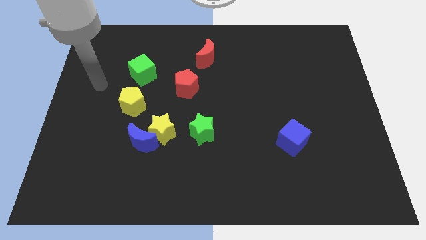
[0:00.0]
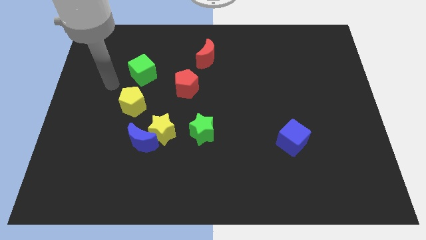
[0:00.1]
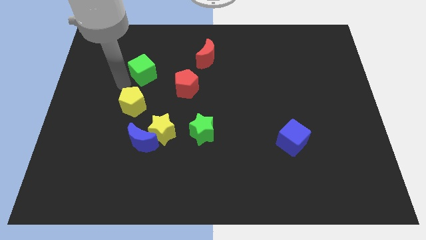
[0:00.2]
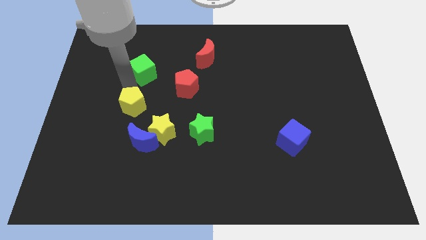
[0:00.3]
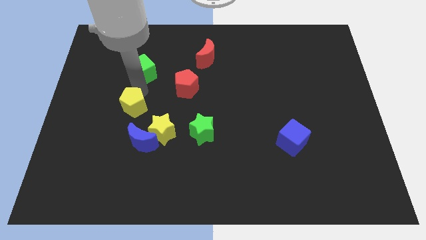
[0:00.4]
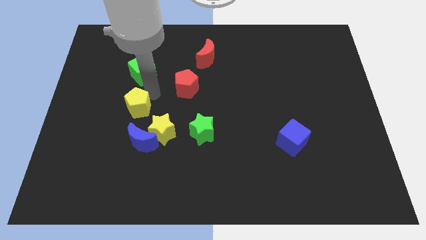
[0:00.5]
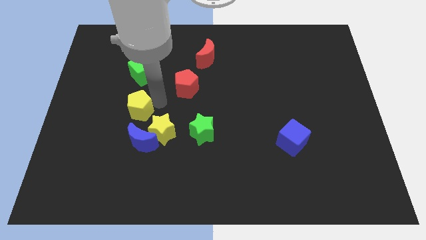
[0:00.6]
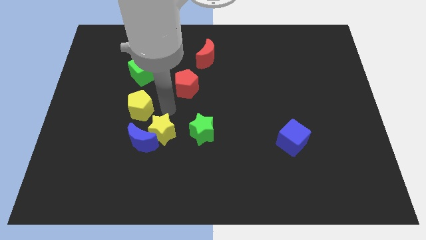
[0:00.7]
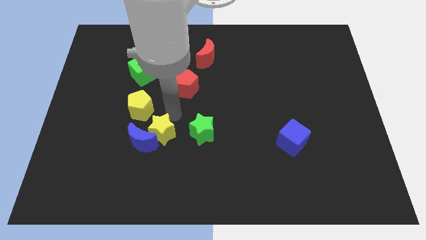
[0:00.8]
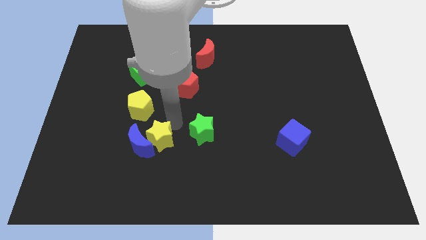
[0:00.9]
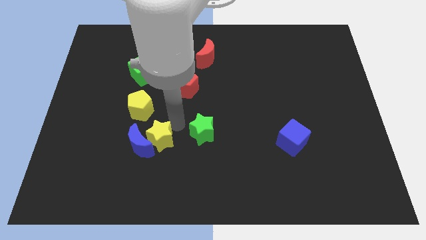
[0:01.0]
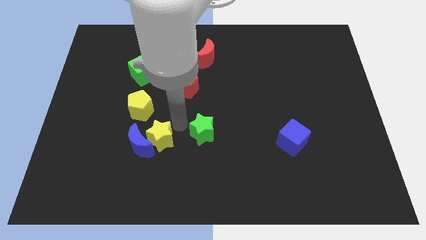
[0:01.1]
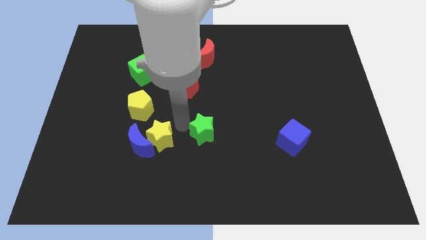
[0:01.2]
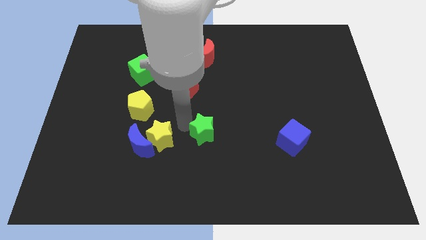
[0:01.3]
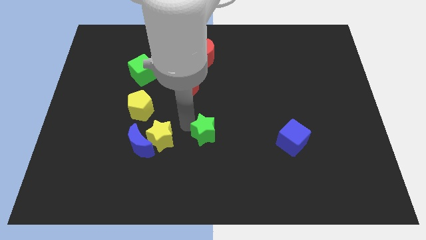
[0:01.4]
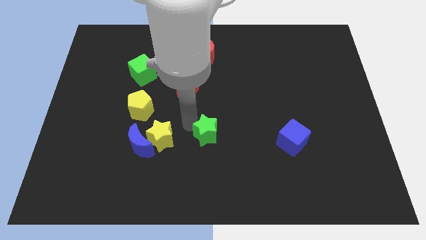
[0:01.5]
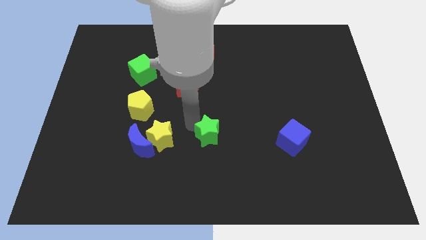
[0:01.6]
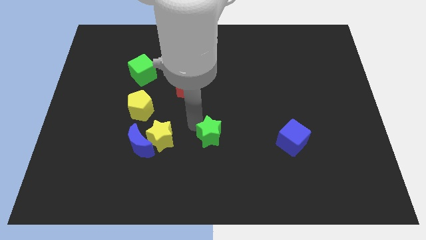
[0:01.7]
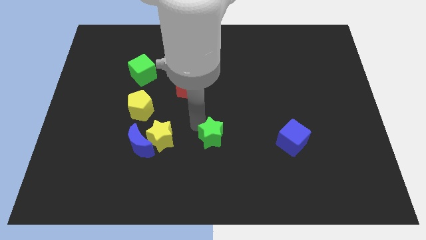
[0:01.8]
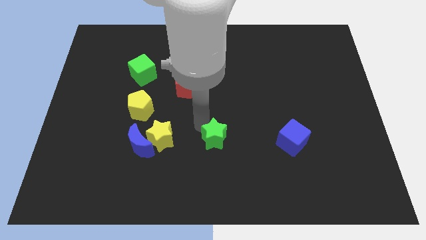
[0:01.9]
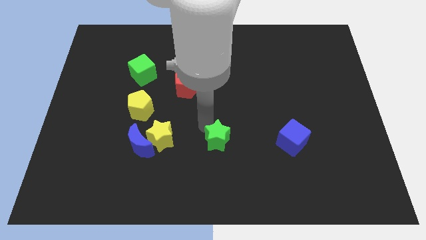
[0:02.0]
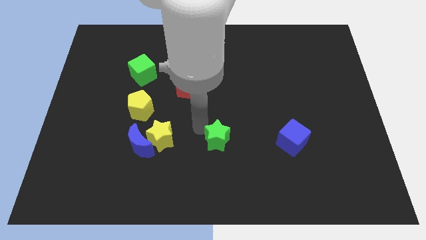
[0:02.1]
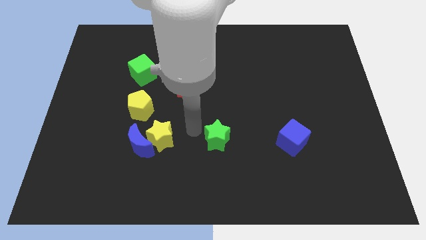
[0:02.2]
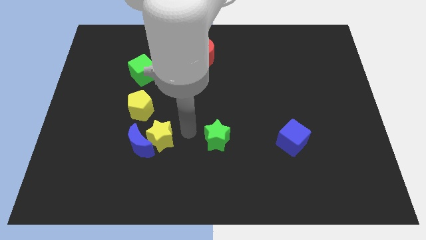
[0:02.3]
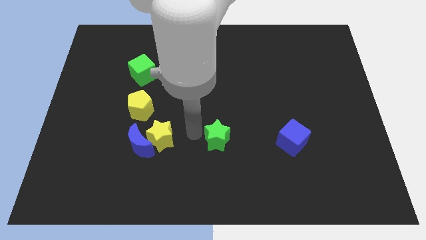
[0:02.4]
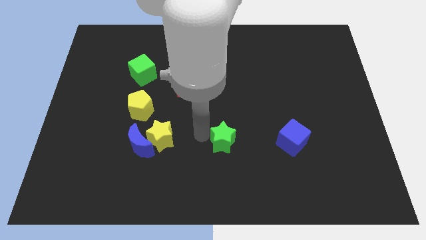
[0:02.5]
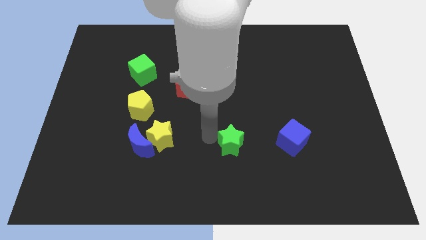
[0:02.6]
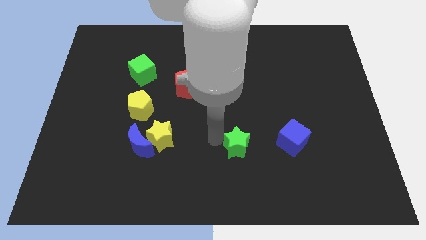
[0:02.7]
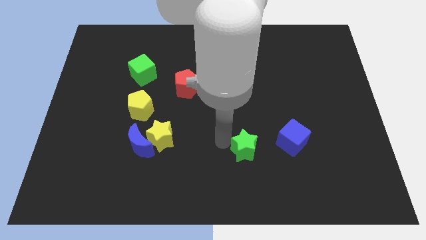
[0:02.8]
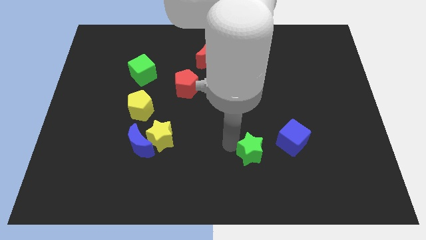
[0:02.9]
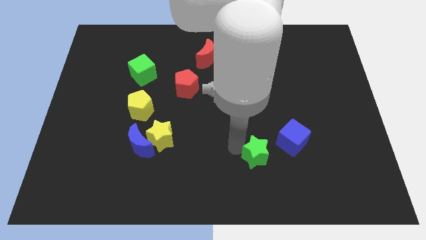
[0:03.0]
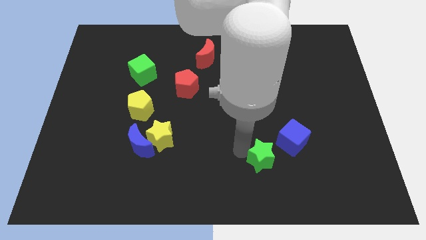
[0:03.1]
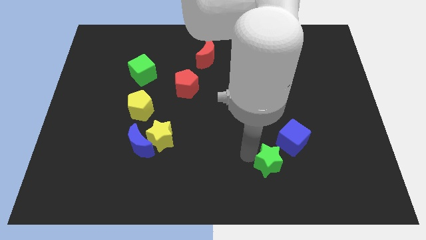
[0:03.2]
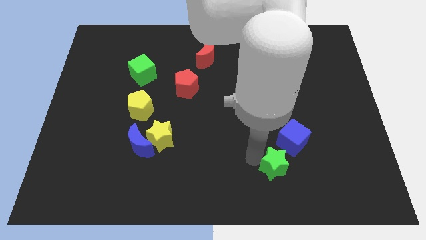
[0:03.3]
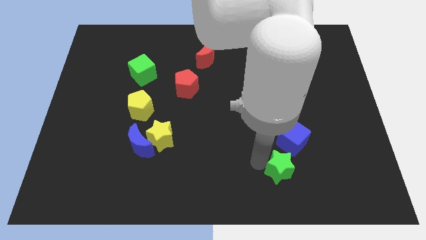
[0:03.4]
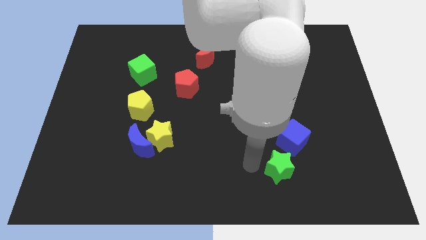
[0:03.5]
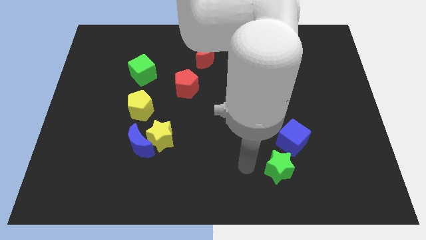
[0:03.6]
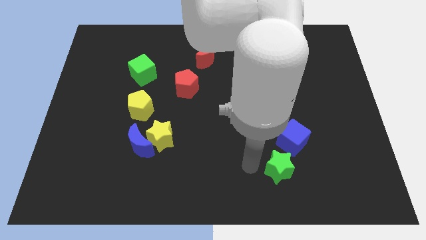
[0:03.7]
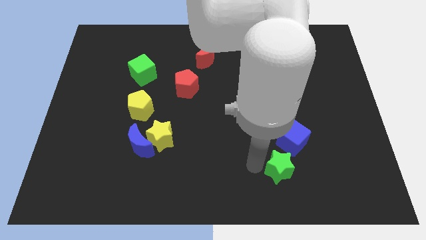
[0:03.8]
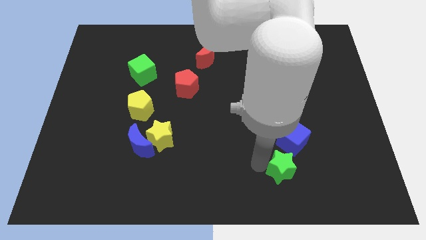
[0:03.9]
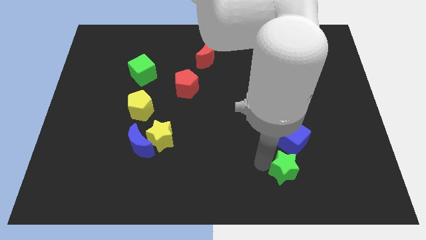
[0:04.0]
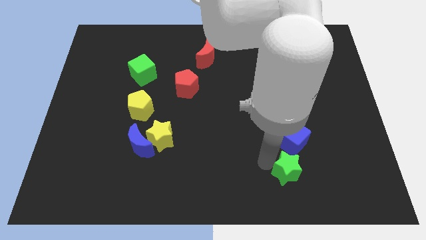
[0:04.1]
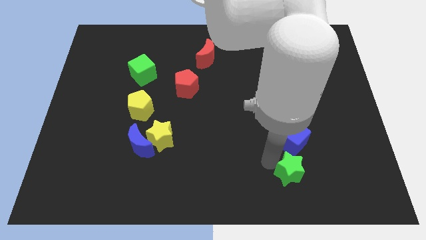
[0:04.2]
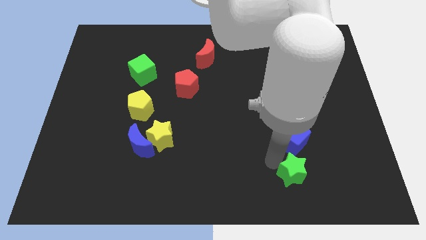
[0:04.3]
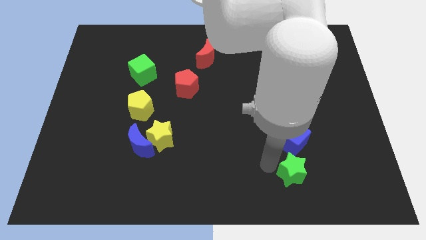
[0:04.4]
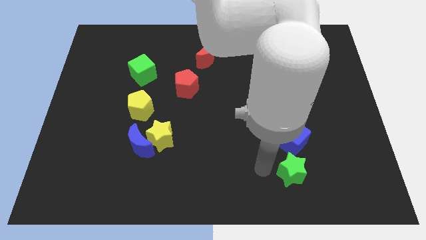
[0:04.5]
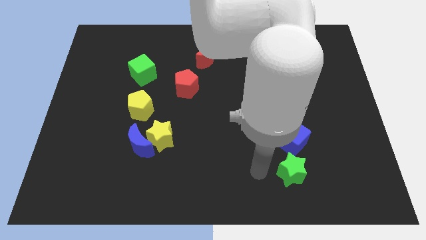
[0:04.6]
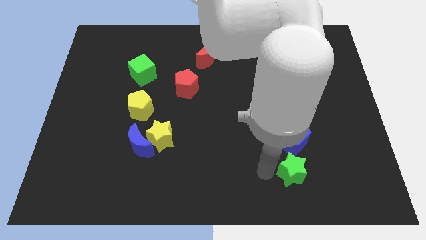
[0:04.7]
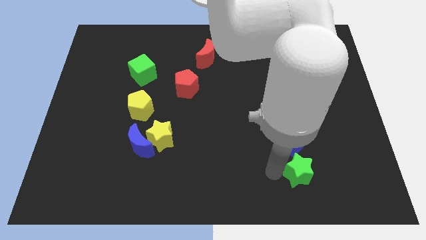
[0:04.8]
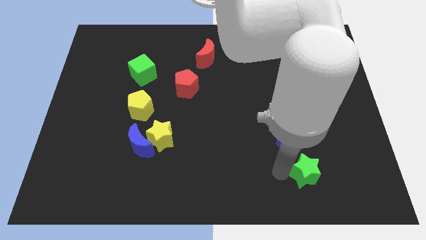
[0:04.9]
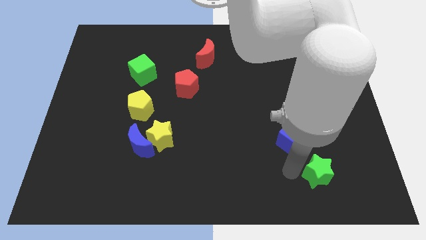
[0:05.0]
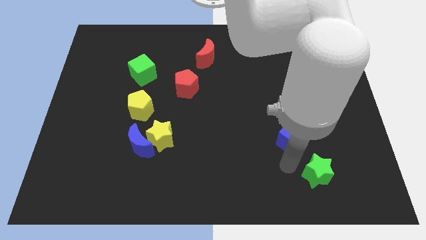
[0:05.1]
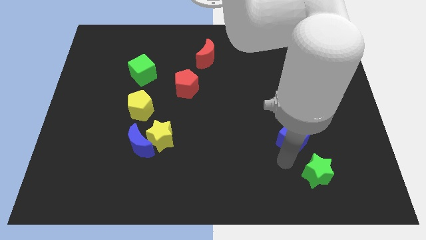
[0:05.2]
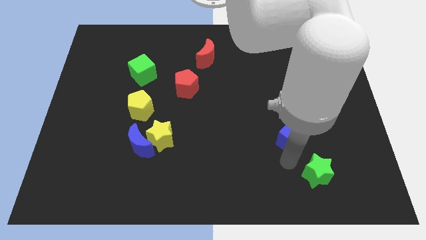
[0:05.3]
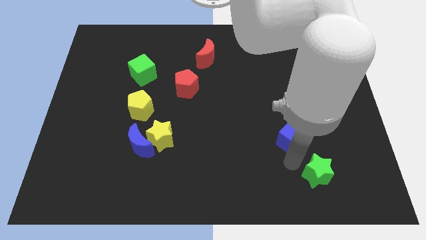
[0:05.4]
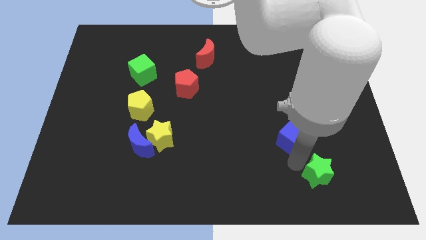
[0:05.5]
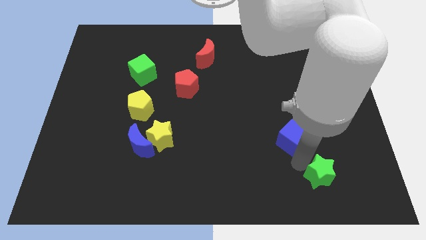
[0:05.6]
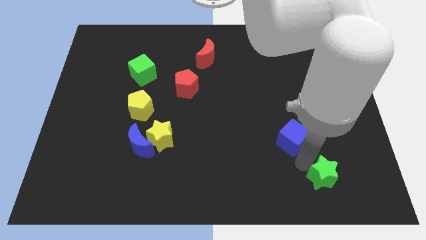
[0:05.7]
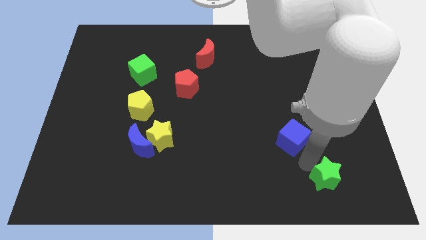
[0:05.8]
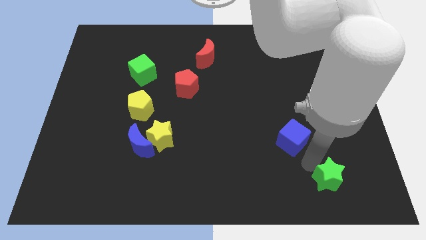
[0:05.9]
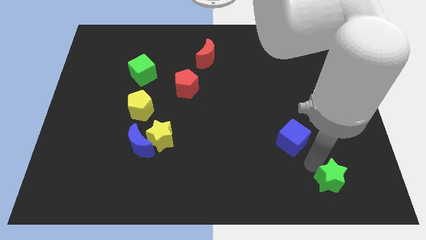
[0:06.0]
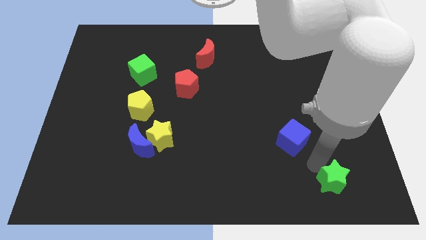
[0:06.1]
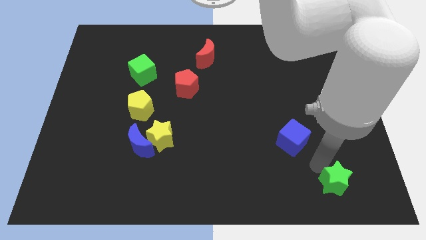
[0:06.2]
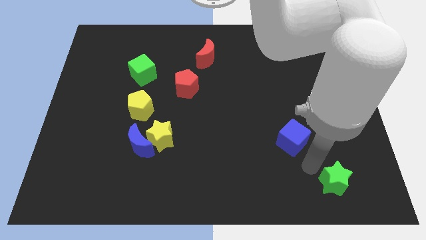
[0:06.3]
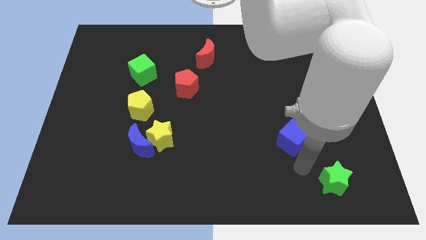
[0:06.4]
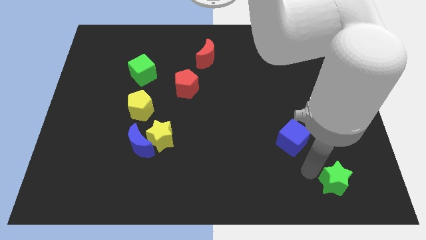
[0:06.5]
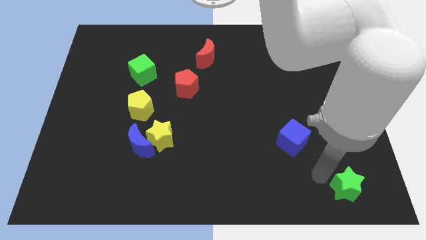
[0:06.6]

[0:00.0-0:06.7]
put the green star to the lower right corner
